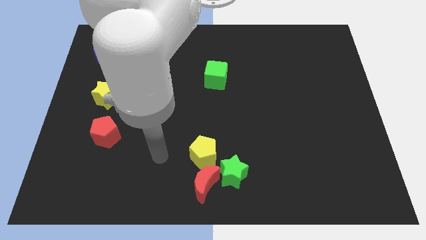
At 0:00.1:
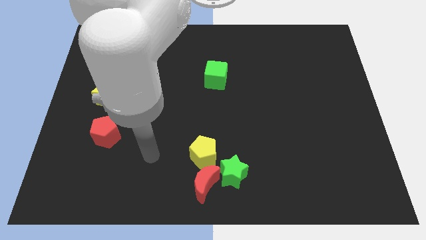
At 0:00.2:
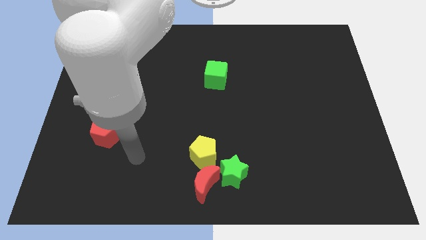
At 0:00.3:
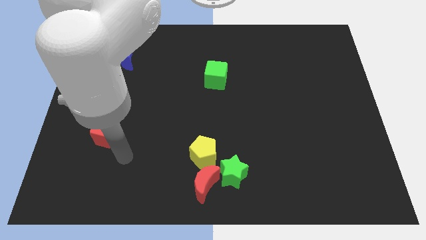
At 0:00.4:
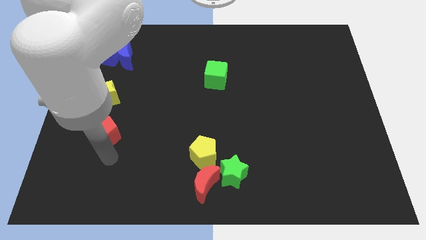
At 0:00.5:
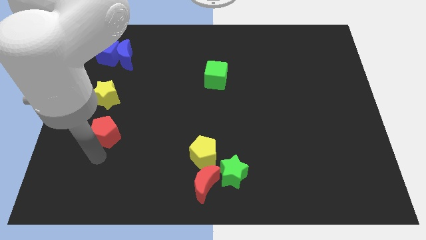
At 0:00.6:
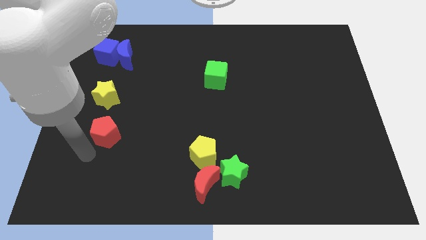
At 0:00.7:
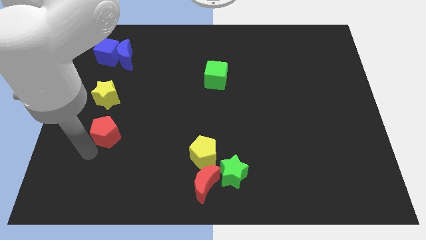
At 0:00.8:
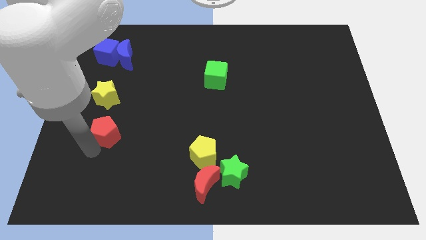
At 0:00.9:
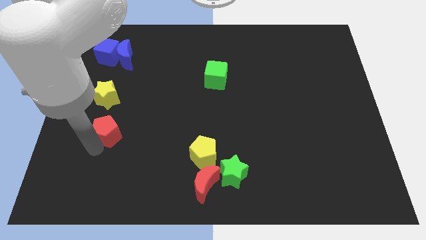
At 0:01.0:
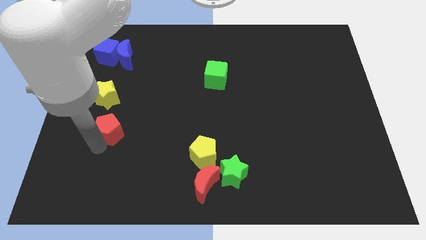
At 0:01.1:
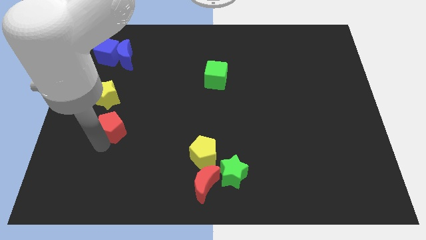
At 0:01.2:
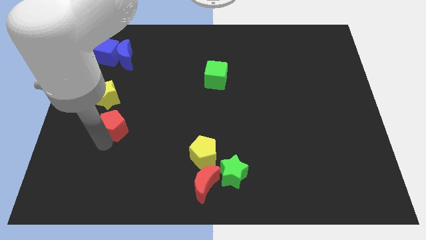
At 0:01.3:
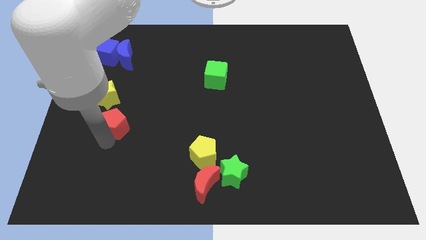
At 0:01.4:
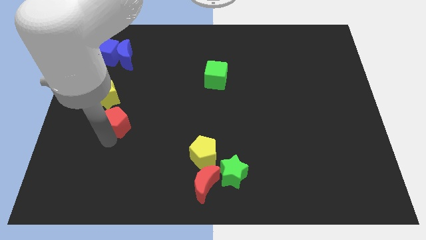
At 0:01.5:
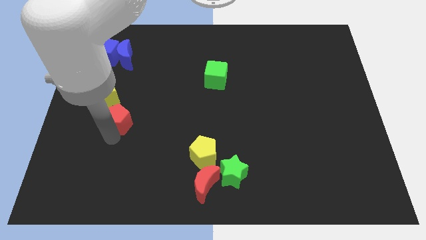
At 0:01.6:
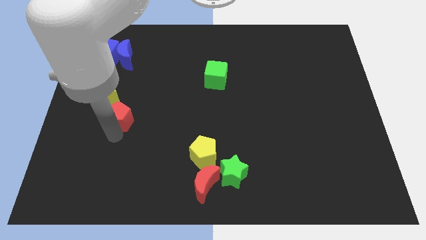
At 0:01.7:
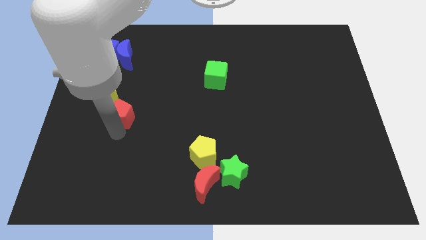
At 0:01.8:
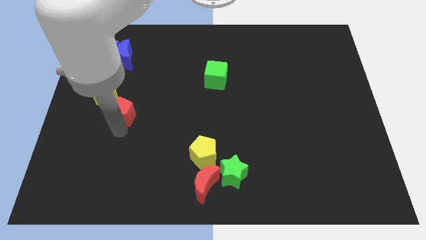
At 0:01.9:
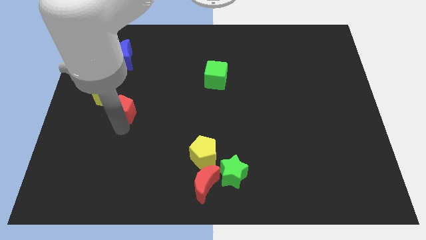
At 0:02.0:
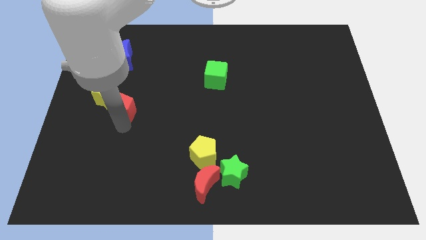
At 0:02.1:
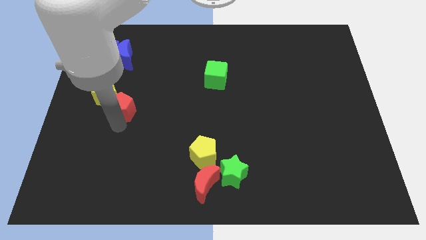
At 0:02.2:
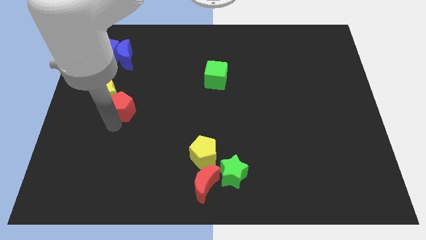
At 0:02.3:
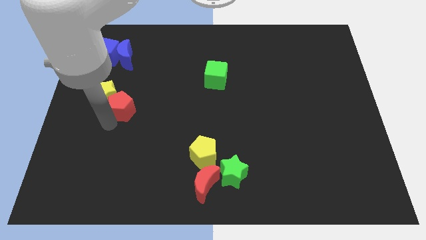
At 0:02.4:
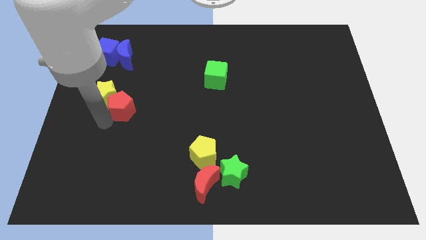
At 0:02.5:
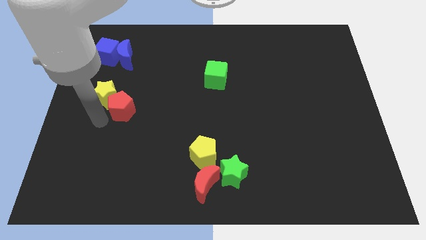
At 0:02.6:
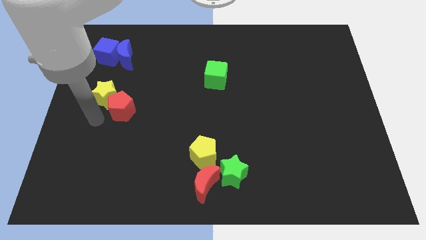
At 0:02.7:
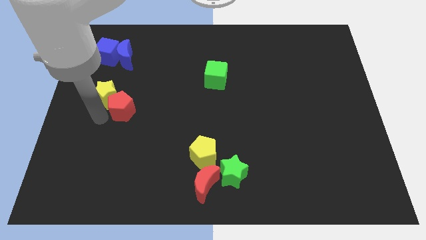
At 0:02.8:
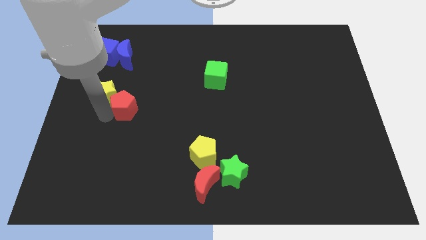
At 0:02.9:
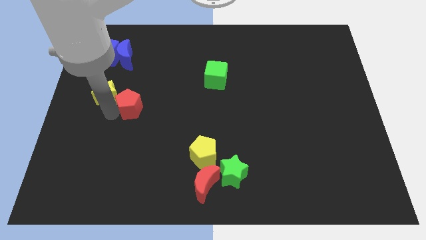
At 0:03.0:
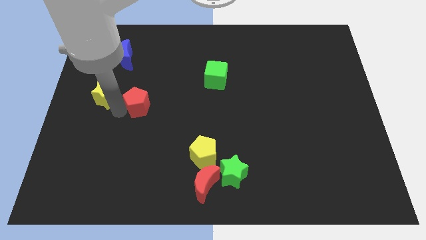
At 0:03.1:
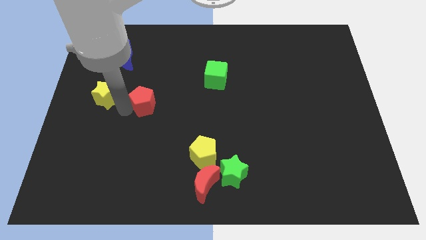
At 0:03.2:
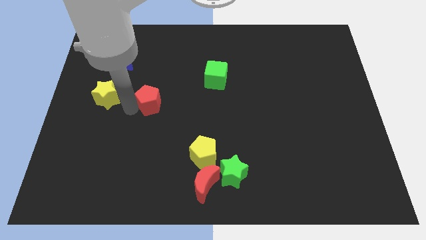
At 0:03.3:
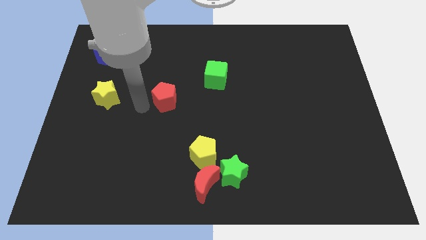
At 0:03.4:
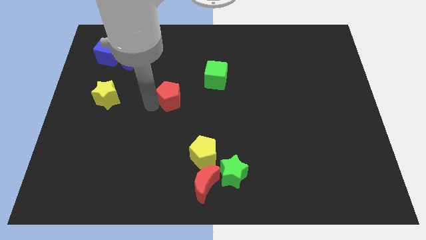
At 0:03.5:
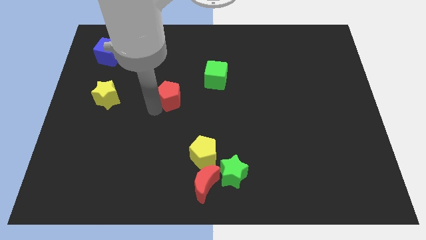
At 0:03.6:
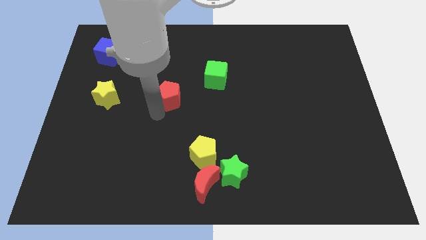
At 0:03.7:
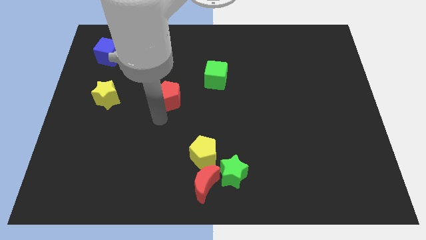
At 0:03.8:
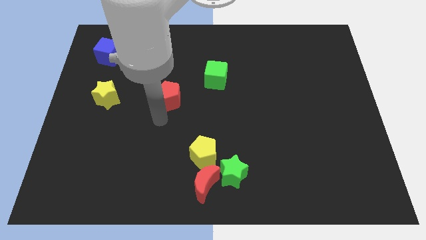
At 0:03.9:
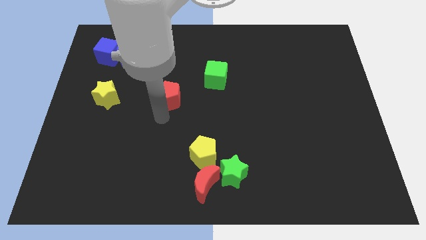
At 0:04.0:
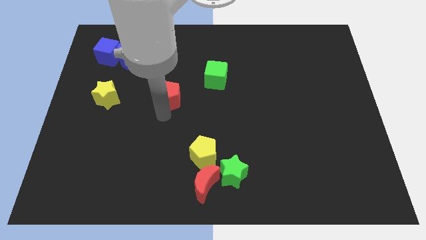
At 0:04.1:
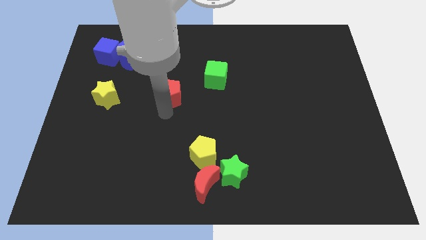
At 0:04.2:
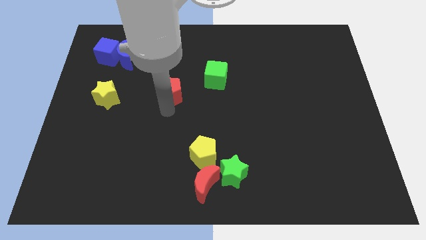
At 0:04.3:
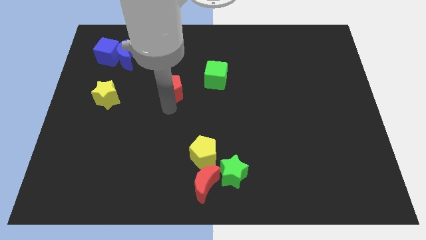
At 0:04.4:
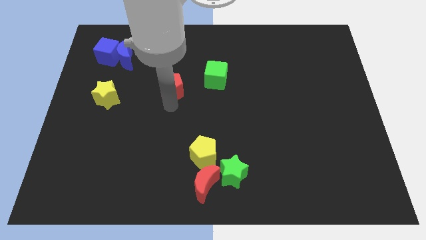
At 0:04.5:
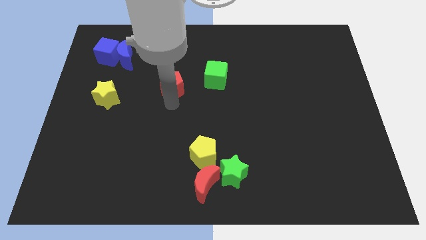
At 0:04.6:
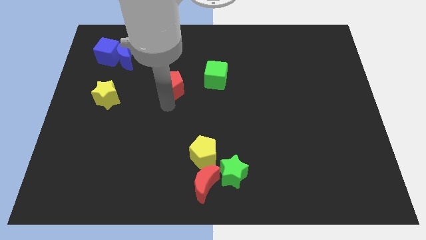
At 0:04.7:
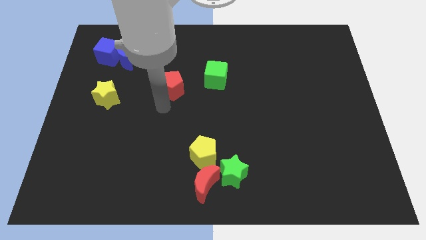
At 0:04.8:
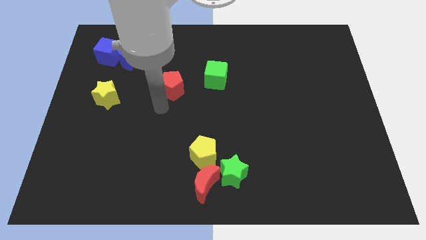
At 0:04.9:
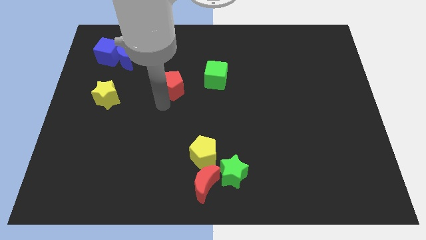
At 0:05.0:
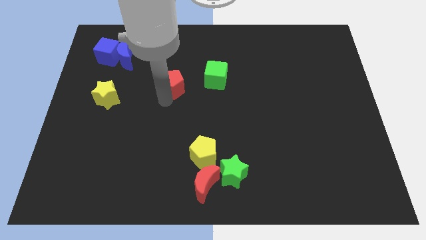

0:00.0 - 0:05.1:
move the red pentagon upwards and to the right diagonally

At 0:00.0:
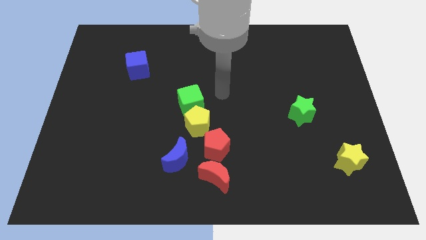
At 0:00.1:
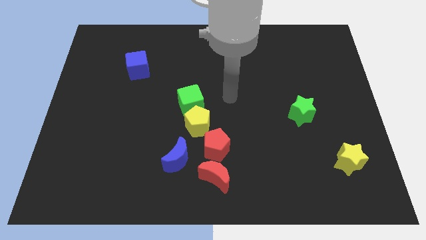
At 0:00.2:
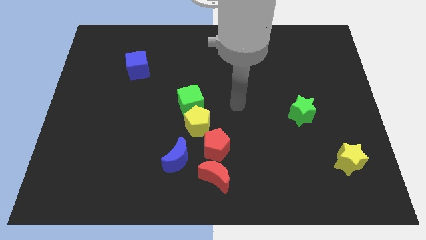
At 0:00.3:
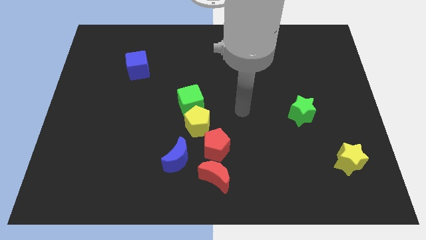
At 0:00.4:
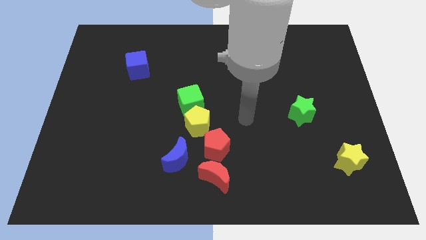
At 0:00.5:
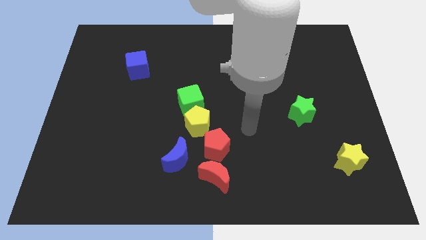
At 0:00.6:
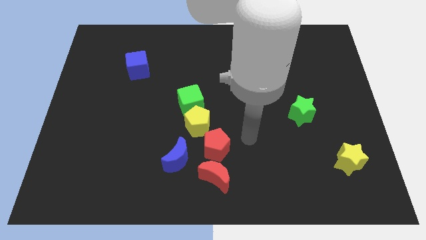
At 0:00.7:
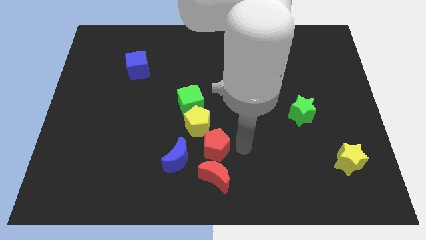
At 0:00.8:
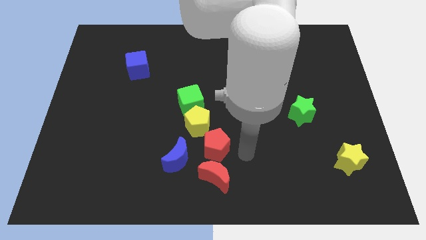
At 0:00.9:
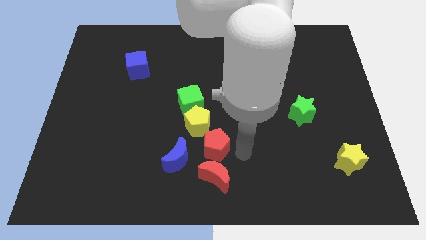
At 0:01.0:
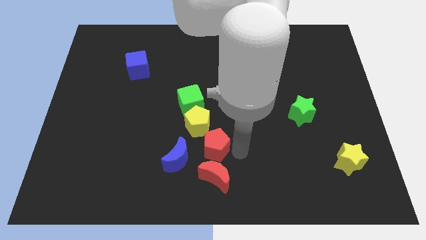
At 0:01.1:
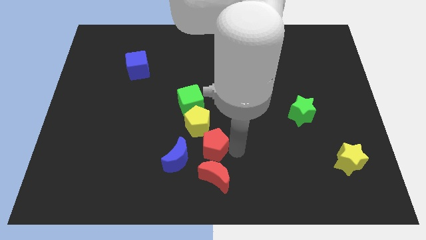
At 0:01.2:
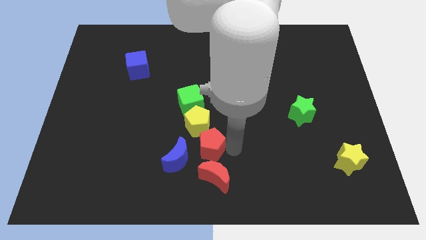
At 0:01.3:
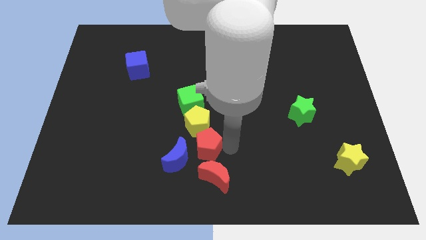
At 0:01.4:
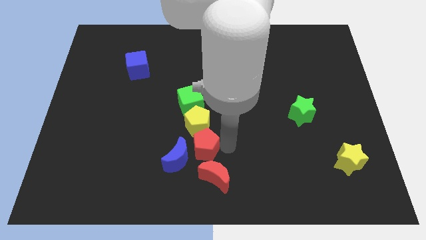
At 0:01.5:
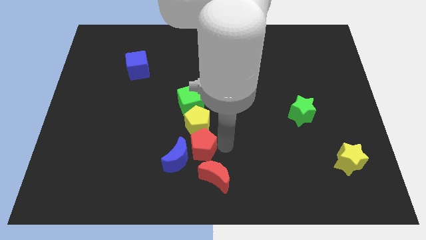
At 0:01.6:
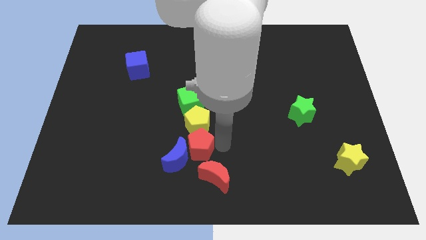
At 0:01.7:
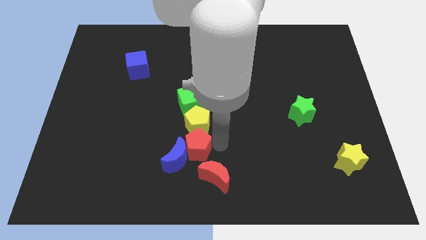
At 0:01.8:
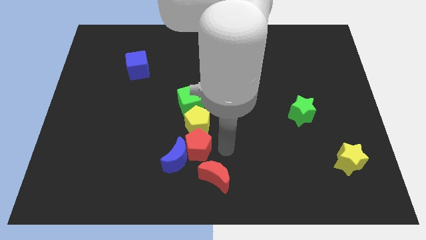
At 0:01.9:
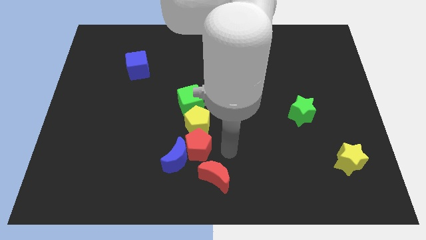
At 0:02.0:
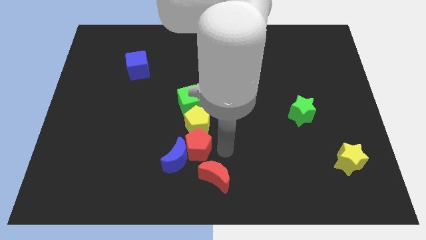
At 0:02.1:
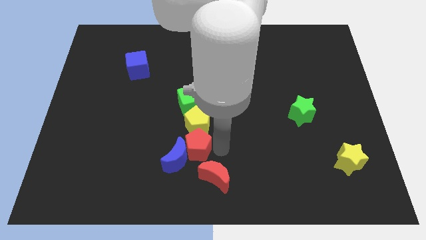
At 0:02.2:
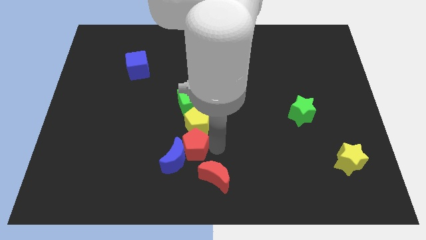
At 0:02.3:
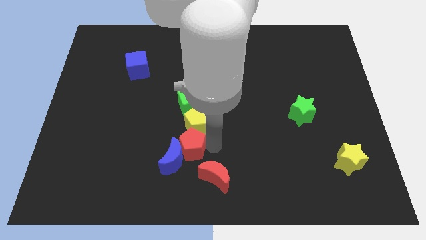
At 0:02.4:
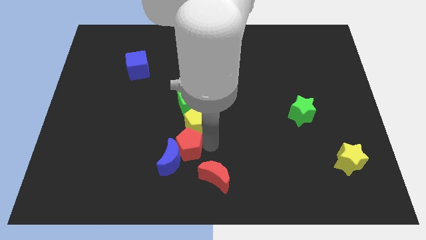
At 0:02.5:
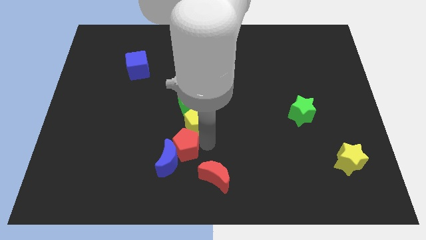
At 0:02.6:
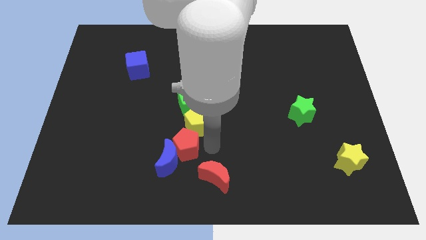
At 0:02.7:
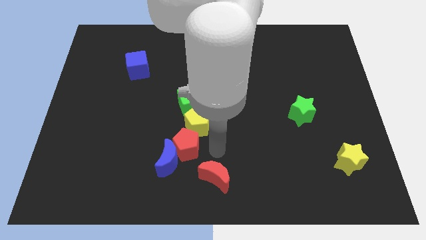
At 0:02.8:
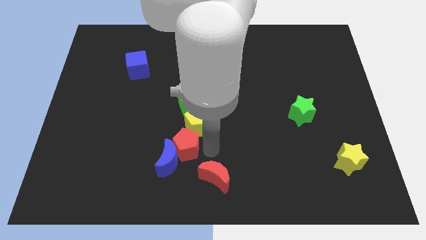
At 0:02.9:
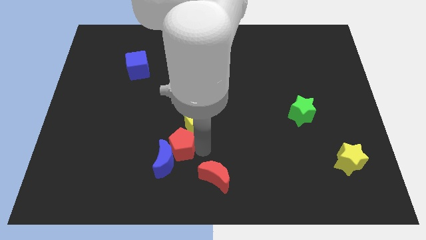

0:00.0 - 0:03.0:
push the red pentagon somewhat left
